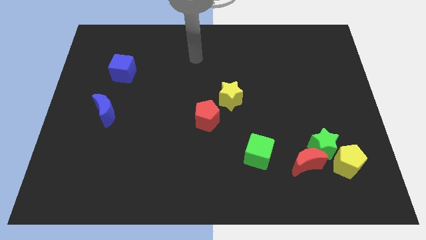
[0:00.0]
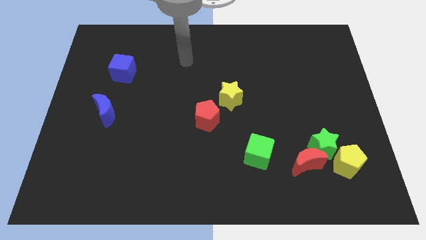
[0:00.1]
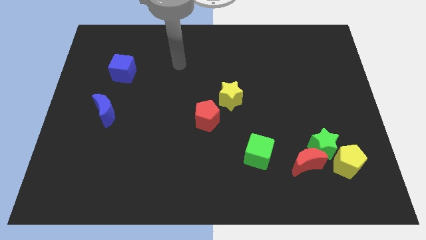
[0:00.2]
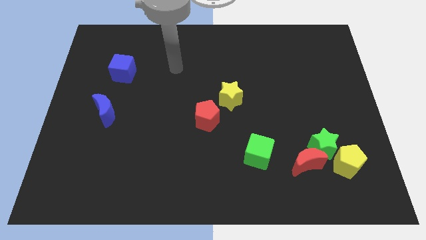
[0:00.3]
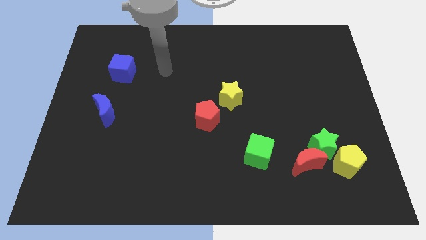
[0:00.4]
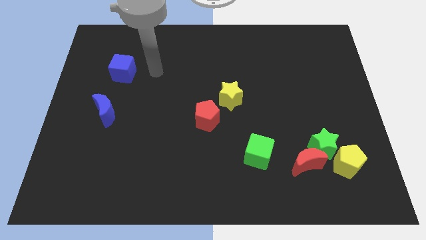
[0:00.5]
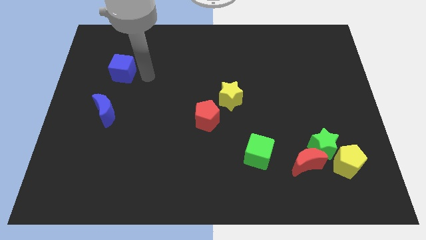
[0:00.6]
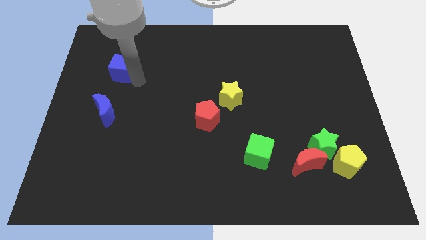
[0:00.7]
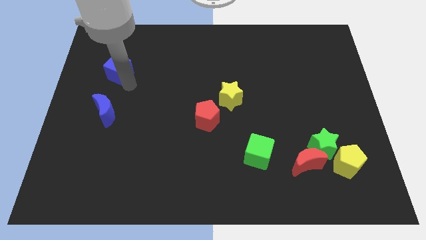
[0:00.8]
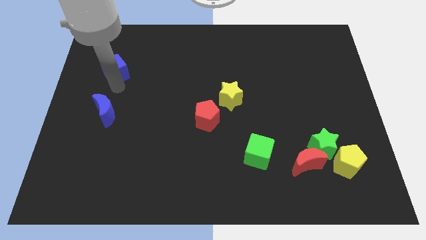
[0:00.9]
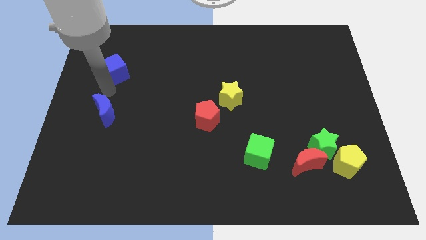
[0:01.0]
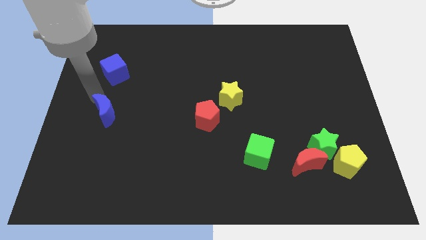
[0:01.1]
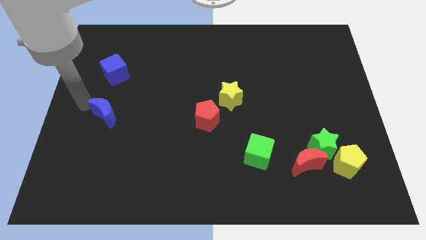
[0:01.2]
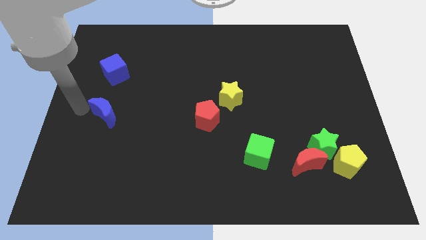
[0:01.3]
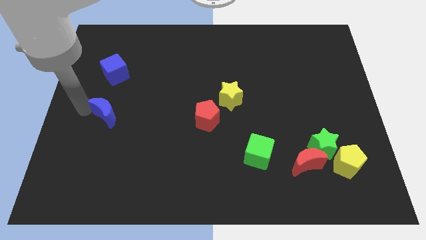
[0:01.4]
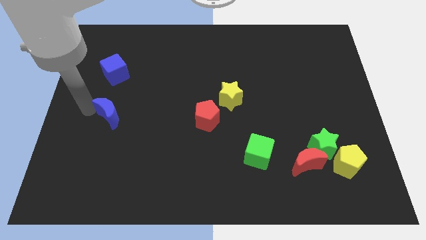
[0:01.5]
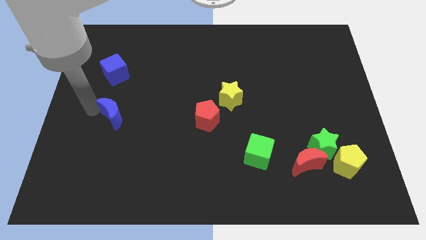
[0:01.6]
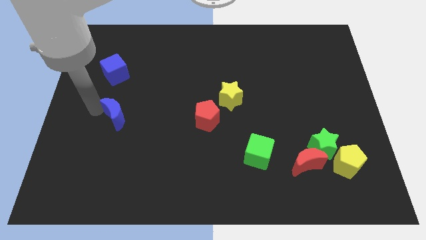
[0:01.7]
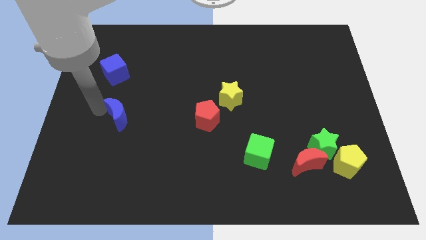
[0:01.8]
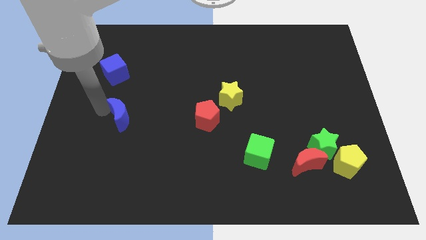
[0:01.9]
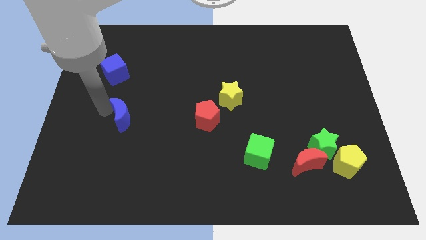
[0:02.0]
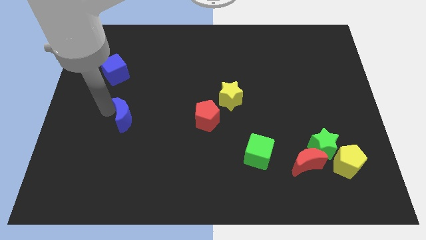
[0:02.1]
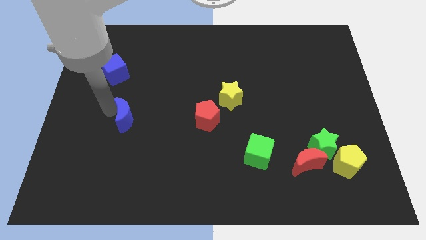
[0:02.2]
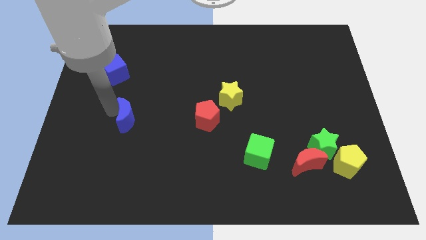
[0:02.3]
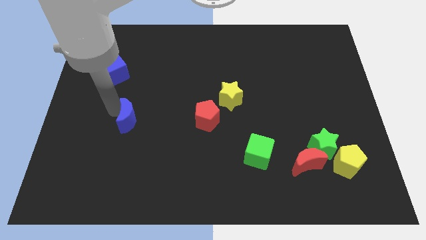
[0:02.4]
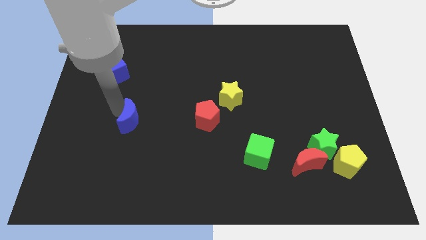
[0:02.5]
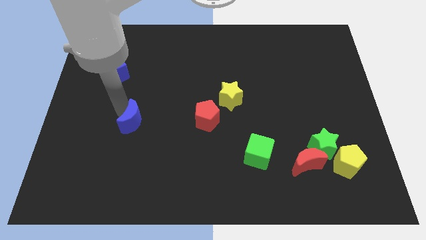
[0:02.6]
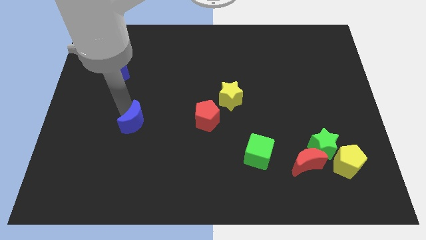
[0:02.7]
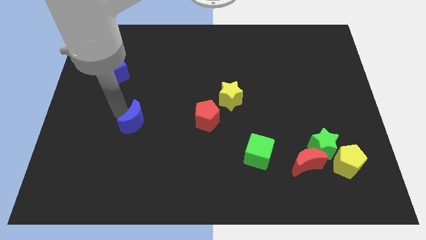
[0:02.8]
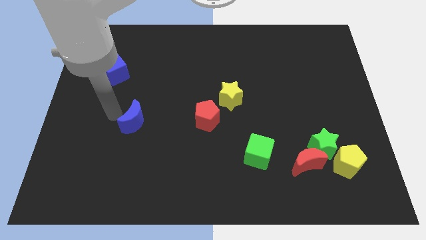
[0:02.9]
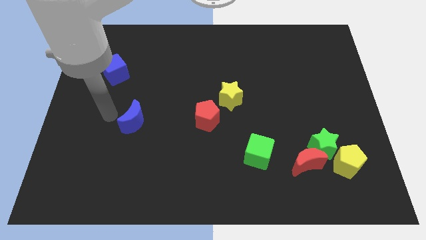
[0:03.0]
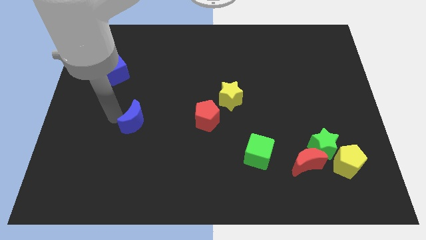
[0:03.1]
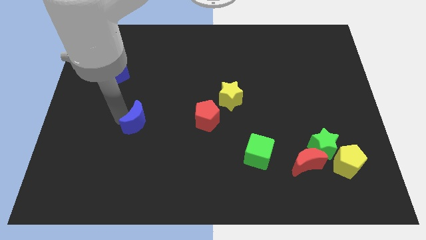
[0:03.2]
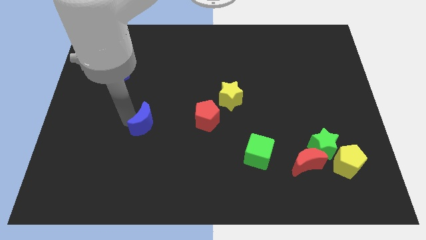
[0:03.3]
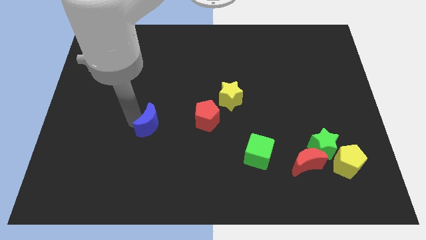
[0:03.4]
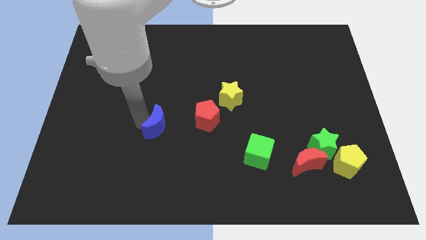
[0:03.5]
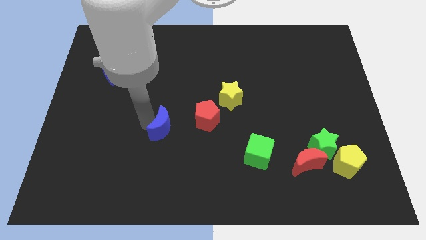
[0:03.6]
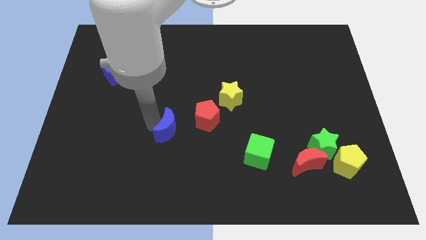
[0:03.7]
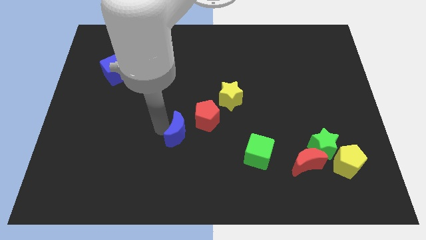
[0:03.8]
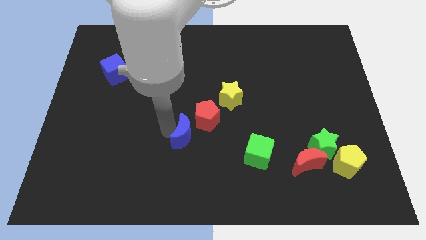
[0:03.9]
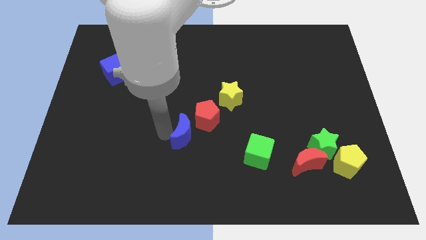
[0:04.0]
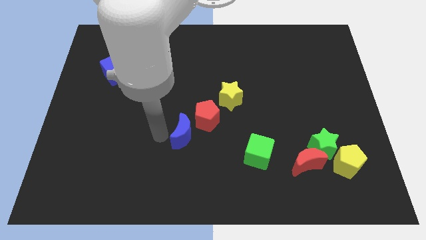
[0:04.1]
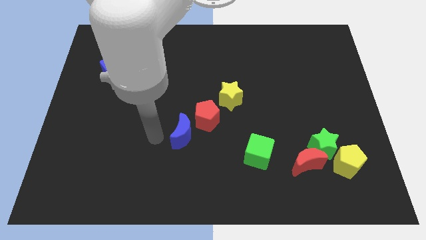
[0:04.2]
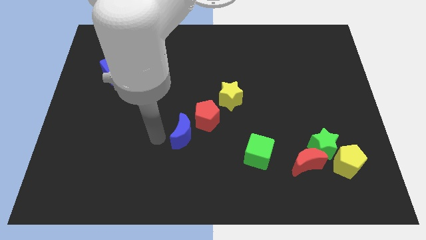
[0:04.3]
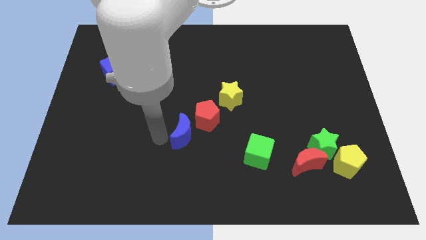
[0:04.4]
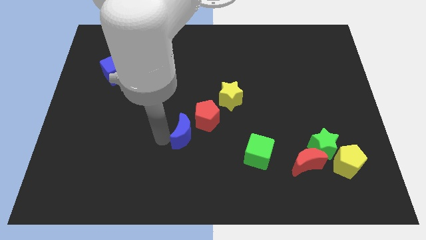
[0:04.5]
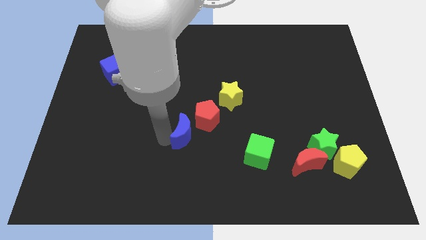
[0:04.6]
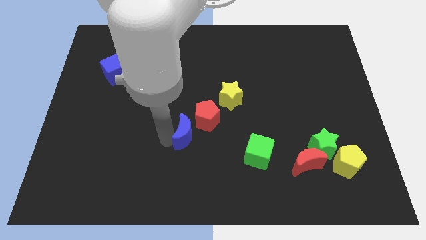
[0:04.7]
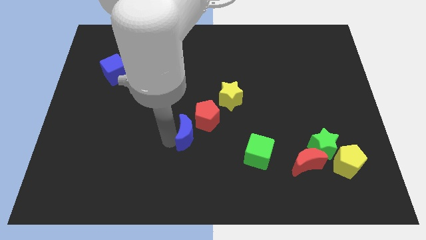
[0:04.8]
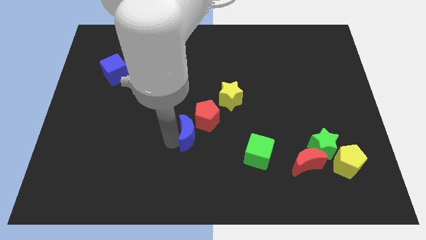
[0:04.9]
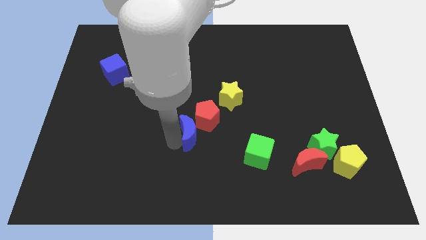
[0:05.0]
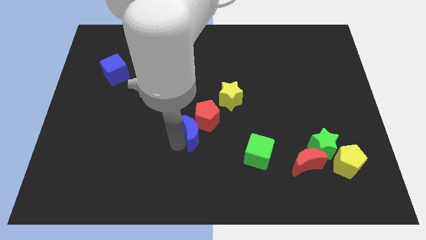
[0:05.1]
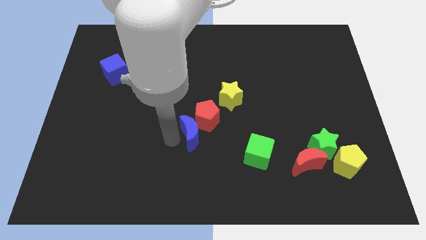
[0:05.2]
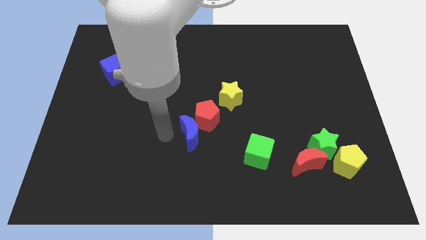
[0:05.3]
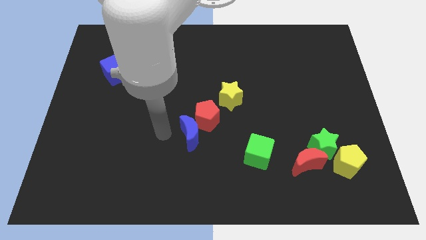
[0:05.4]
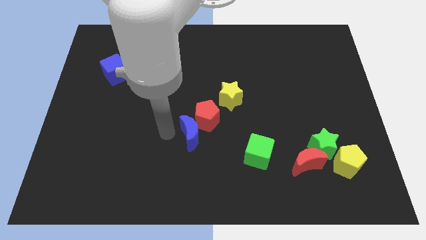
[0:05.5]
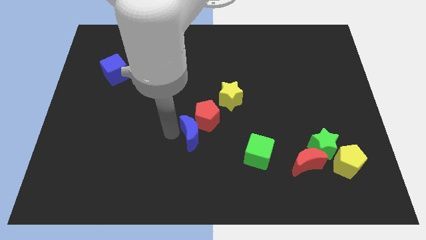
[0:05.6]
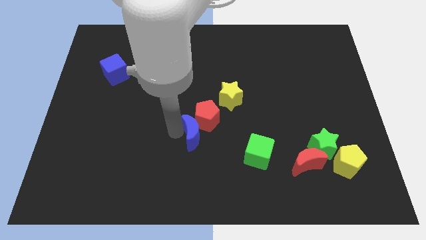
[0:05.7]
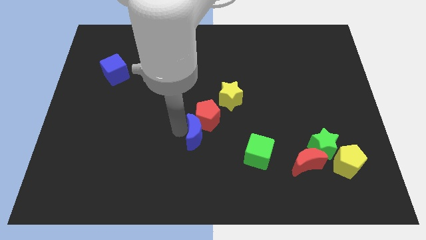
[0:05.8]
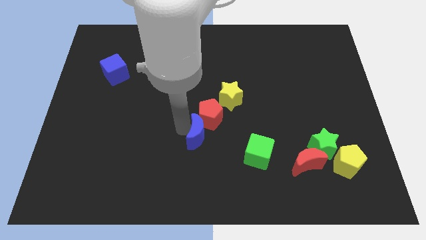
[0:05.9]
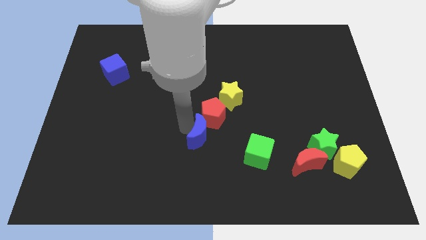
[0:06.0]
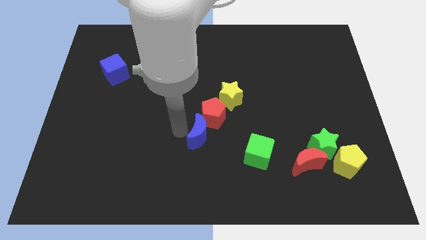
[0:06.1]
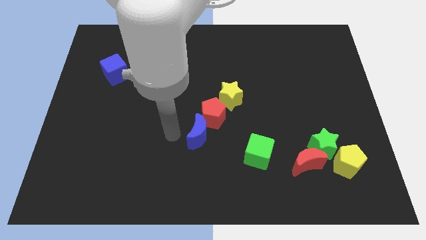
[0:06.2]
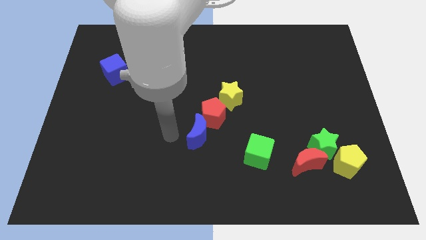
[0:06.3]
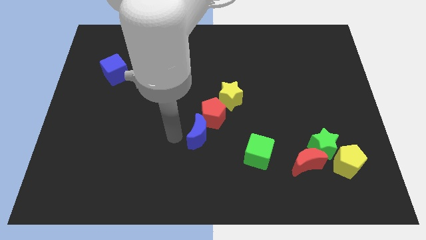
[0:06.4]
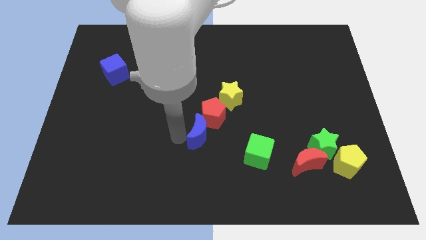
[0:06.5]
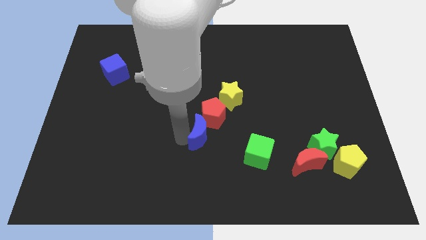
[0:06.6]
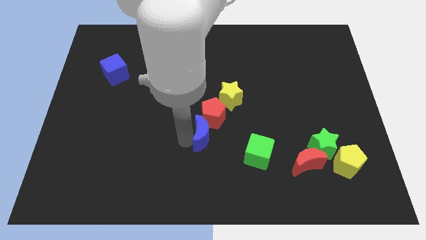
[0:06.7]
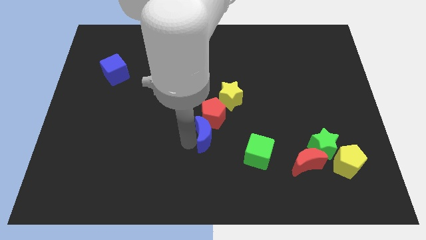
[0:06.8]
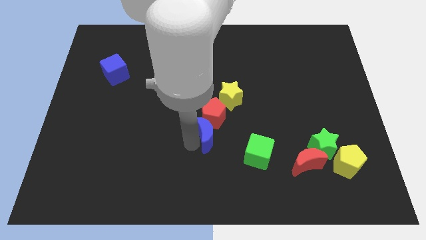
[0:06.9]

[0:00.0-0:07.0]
put the blue moon to the bottom right of the red pentagon
